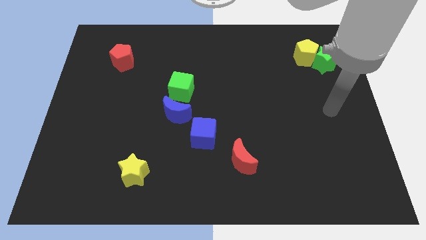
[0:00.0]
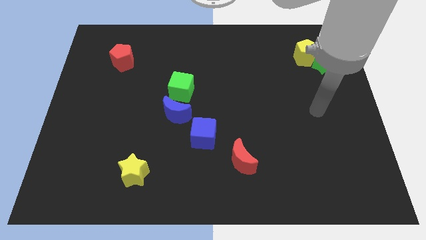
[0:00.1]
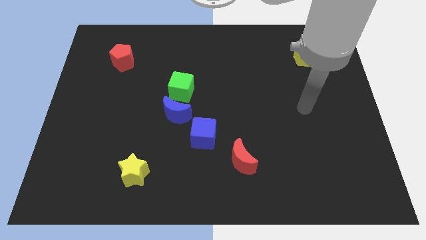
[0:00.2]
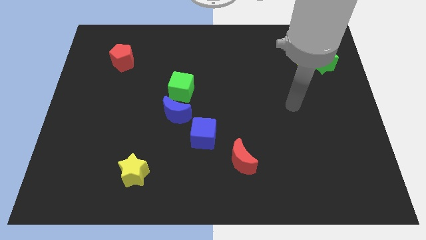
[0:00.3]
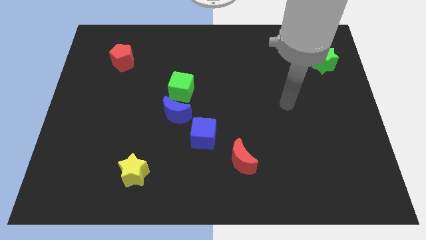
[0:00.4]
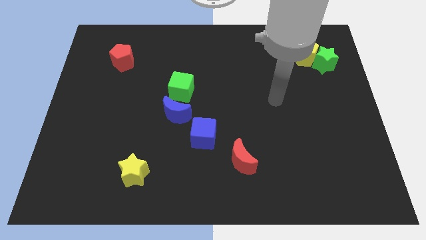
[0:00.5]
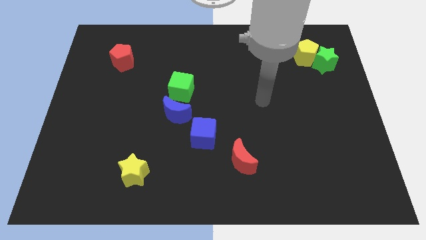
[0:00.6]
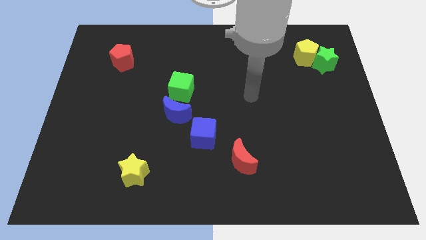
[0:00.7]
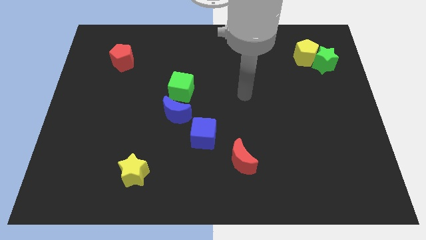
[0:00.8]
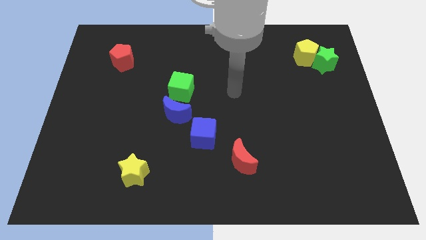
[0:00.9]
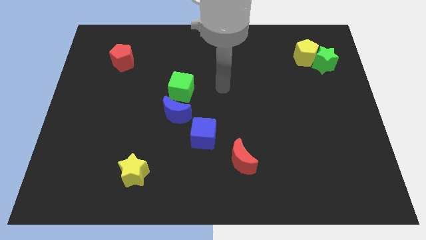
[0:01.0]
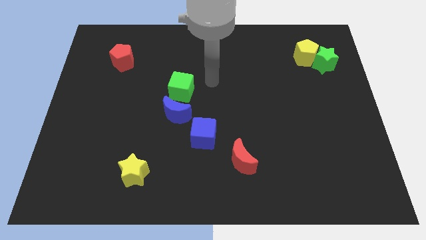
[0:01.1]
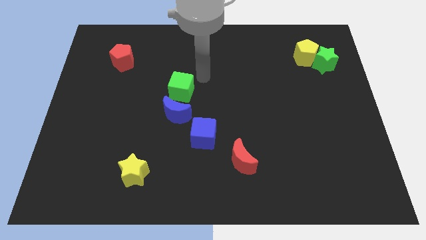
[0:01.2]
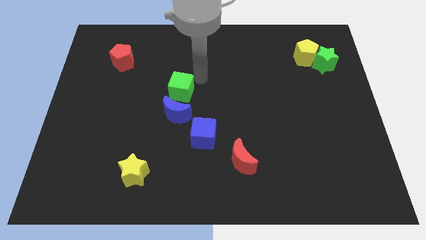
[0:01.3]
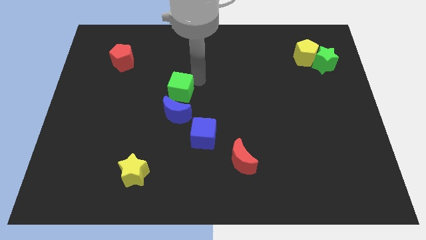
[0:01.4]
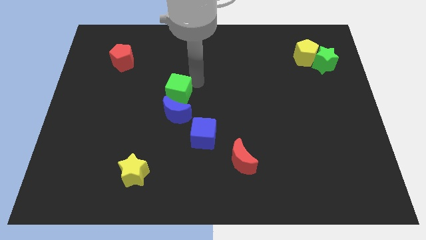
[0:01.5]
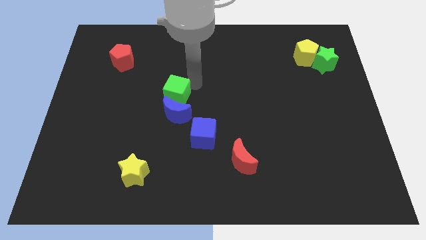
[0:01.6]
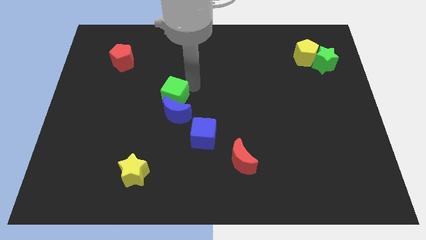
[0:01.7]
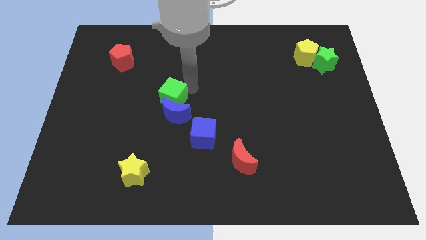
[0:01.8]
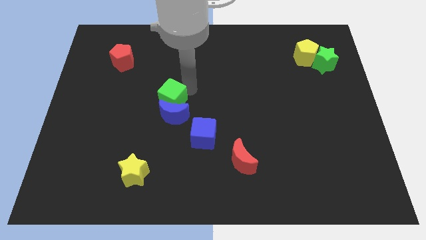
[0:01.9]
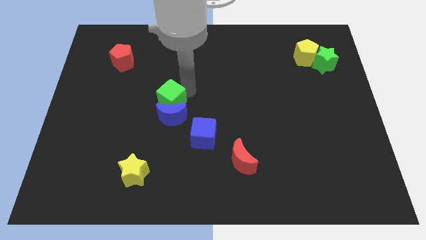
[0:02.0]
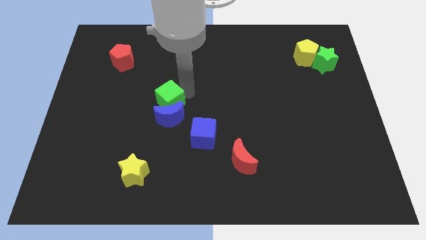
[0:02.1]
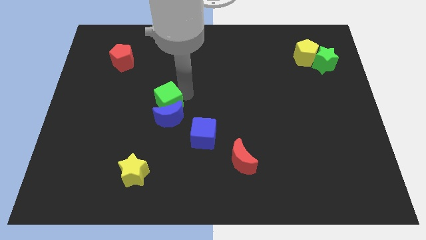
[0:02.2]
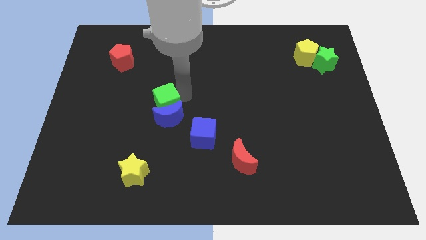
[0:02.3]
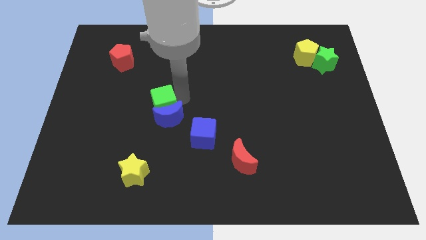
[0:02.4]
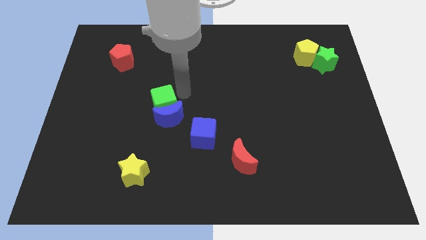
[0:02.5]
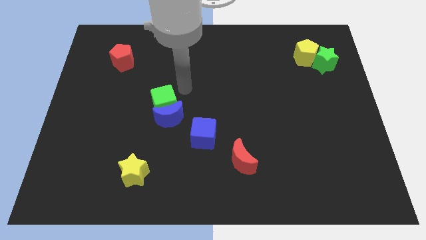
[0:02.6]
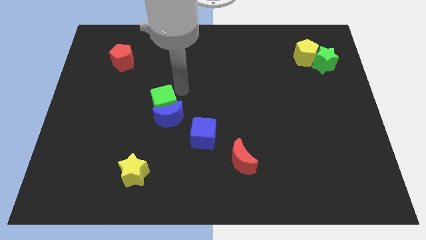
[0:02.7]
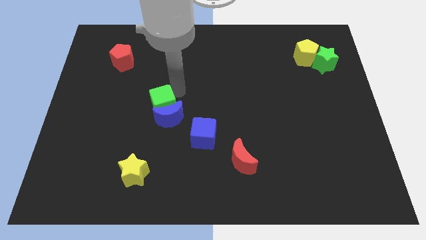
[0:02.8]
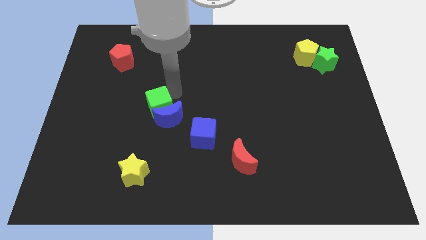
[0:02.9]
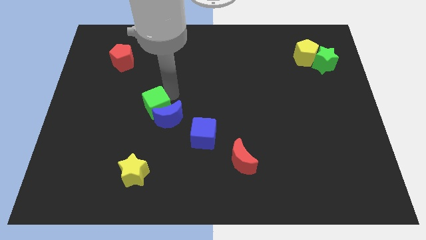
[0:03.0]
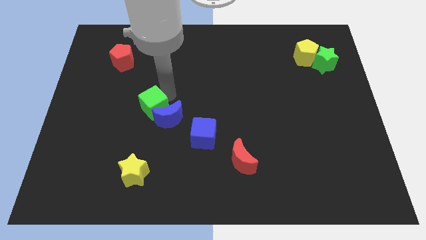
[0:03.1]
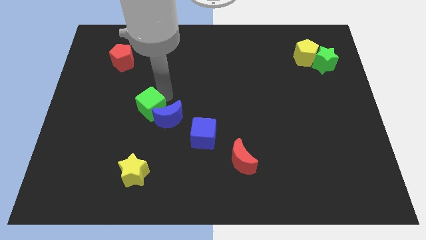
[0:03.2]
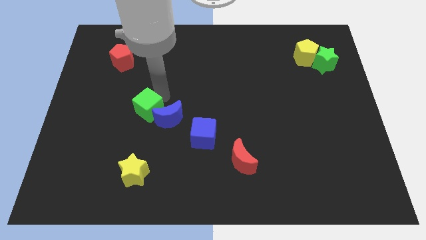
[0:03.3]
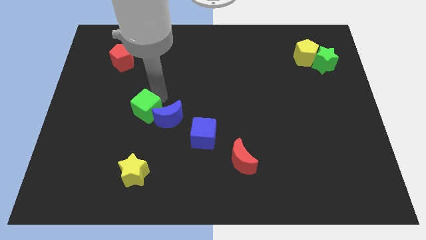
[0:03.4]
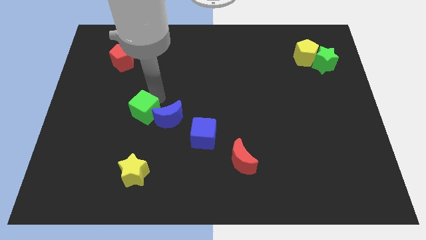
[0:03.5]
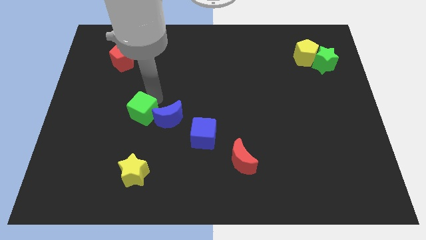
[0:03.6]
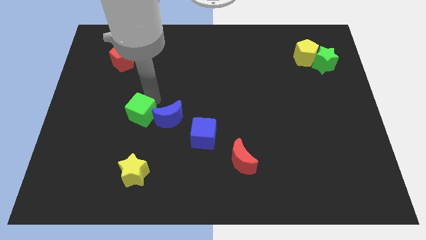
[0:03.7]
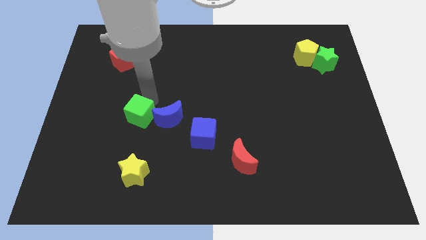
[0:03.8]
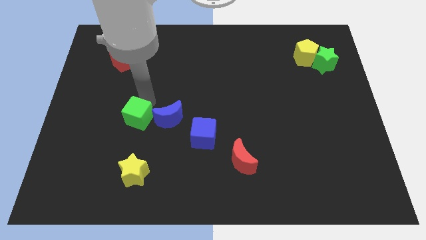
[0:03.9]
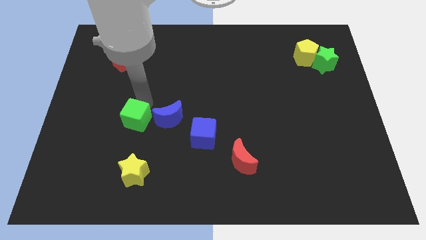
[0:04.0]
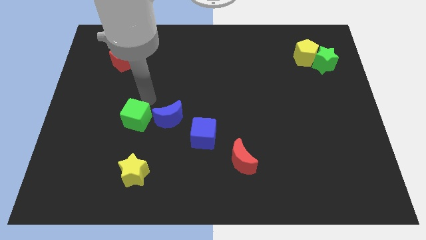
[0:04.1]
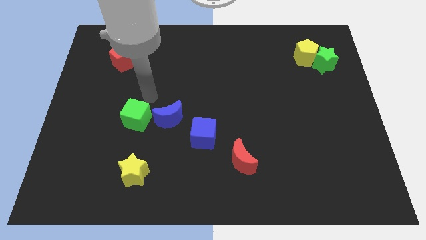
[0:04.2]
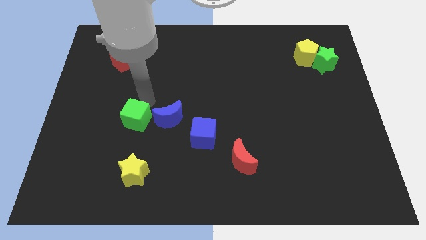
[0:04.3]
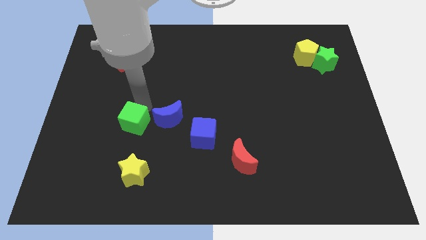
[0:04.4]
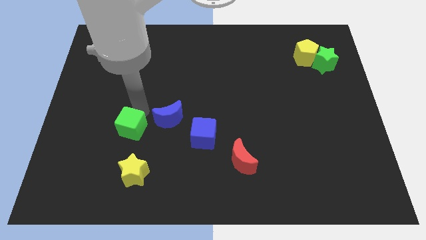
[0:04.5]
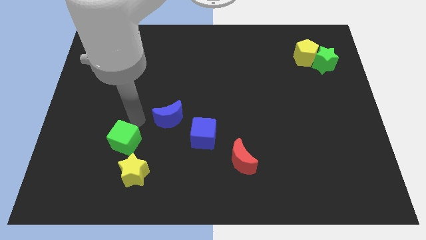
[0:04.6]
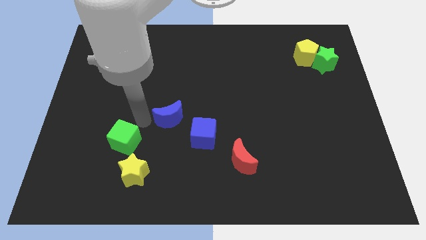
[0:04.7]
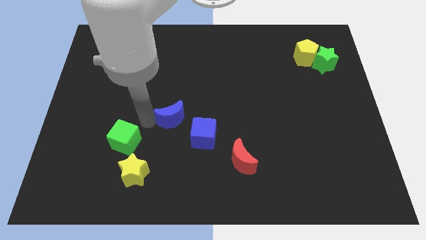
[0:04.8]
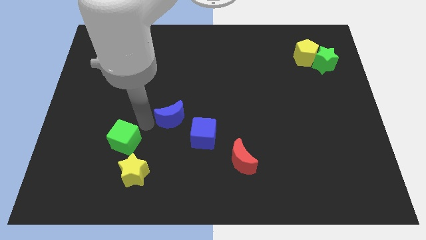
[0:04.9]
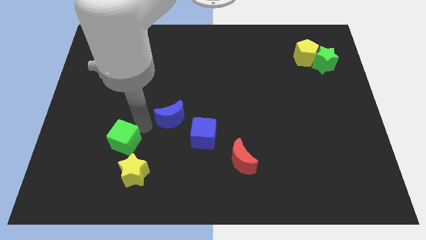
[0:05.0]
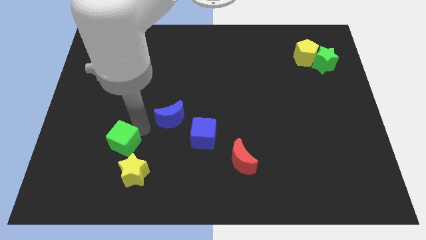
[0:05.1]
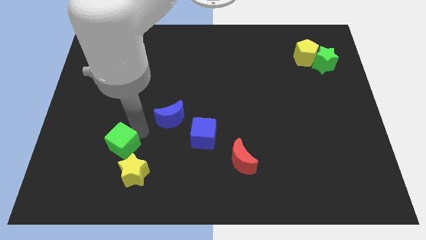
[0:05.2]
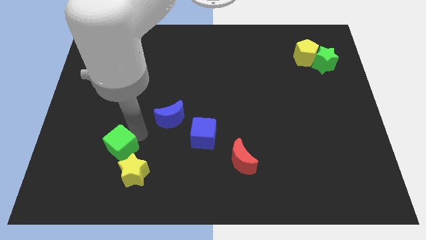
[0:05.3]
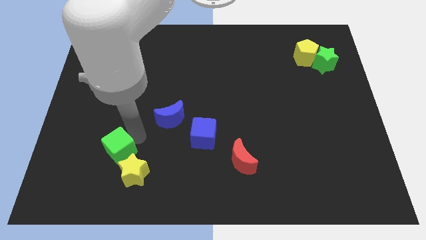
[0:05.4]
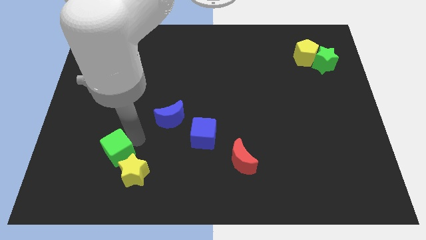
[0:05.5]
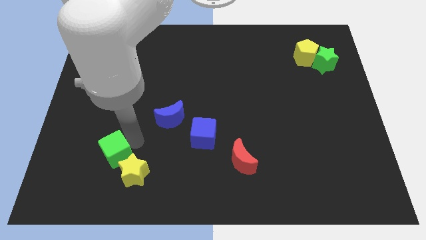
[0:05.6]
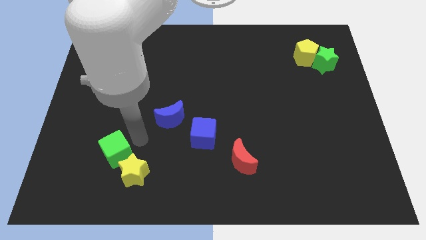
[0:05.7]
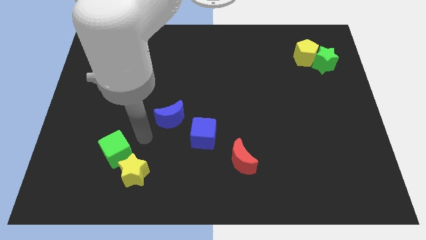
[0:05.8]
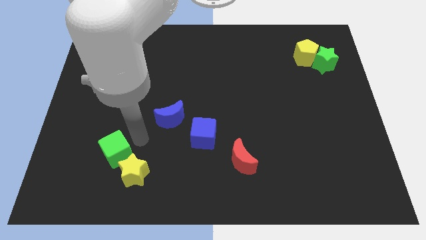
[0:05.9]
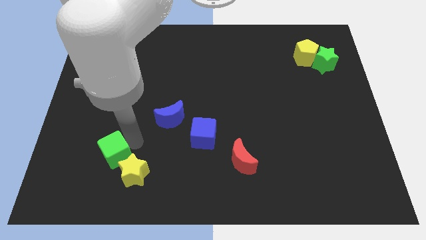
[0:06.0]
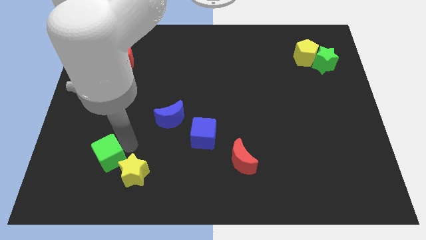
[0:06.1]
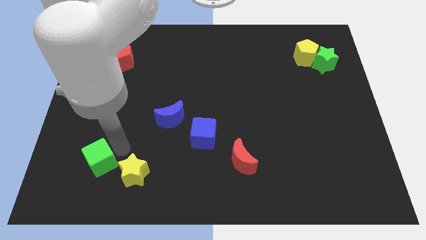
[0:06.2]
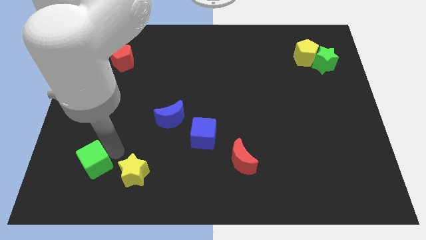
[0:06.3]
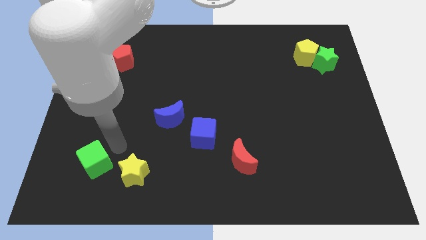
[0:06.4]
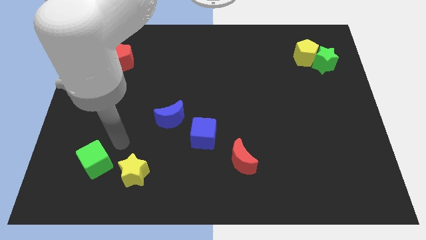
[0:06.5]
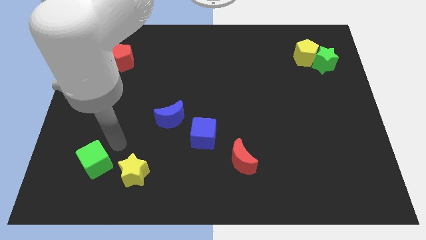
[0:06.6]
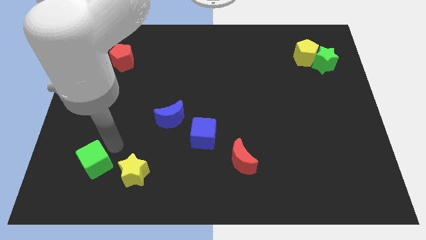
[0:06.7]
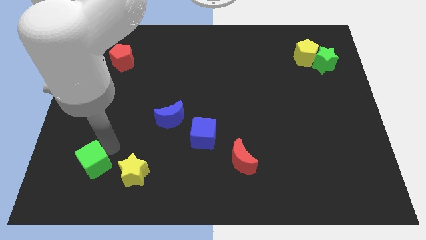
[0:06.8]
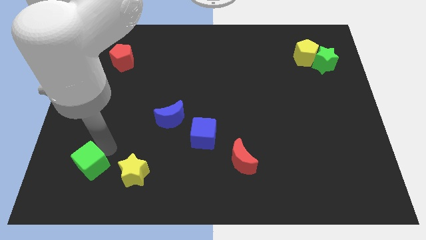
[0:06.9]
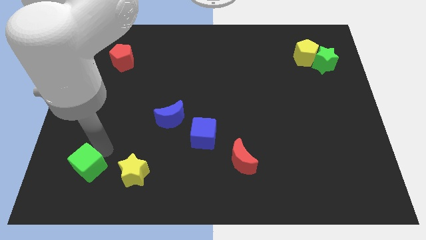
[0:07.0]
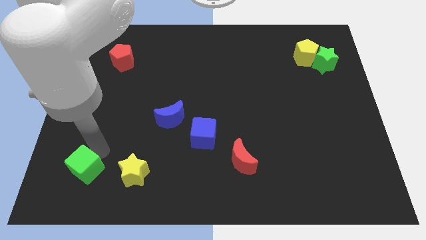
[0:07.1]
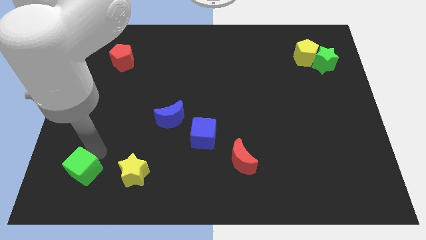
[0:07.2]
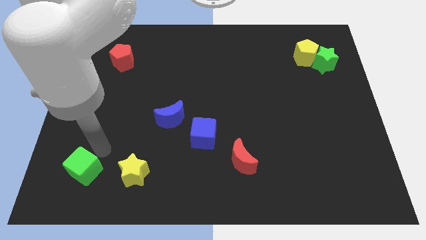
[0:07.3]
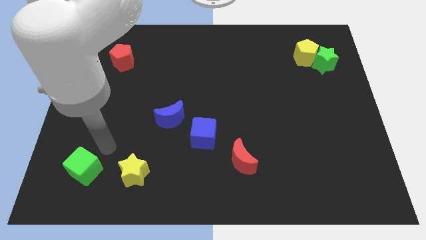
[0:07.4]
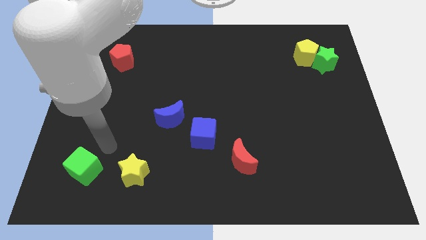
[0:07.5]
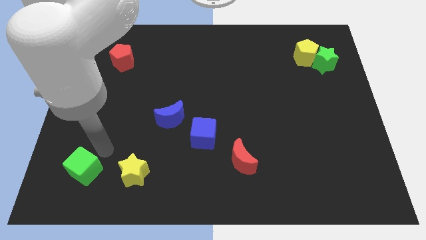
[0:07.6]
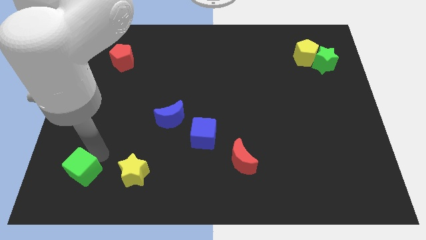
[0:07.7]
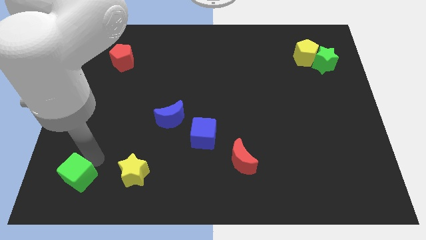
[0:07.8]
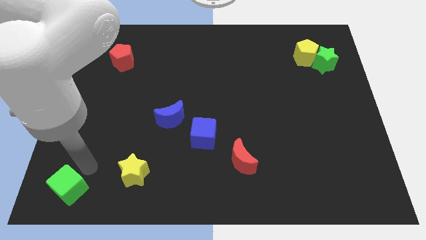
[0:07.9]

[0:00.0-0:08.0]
put the green cube to the bottom left corner
